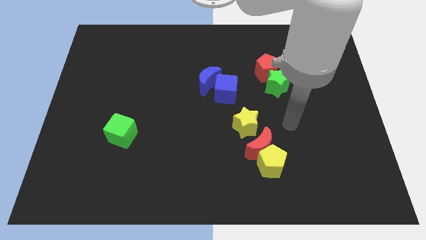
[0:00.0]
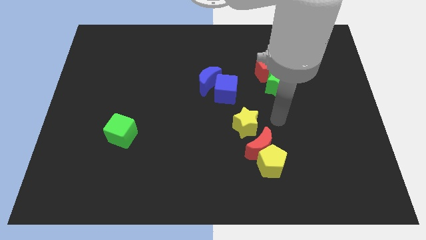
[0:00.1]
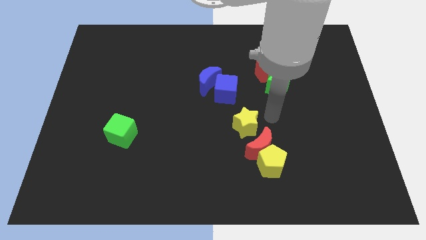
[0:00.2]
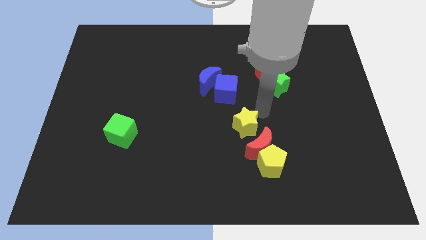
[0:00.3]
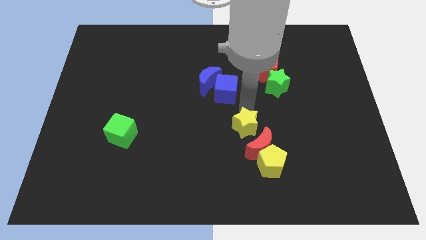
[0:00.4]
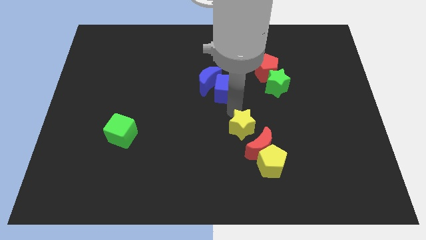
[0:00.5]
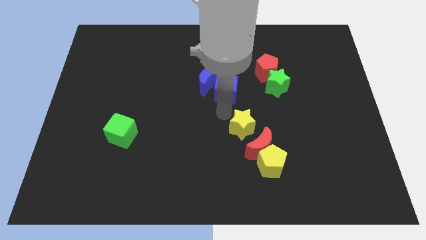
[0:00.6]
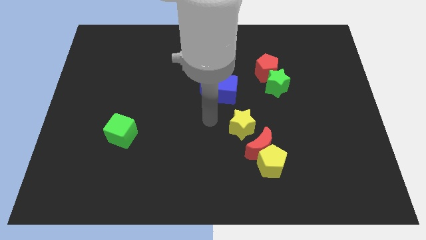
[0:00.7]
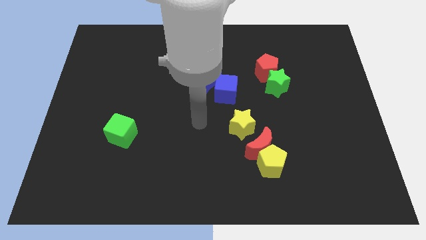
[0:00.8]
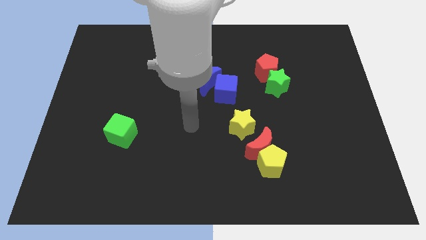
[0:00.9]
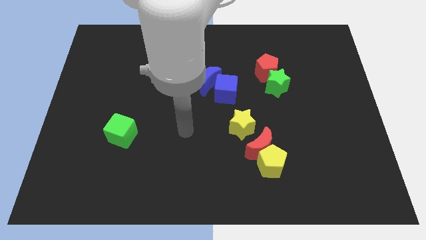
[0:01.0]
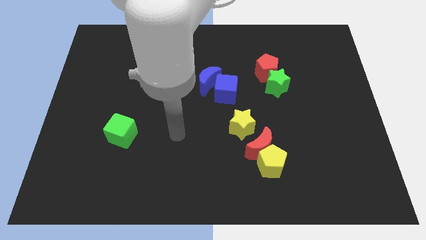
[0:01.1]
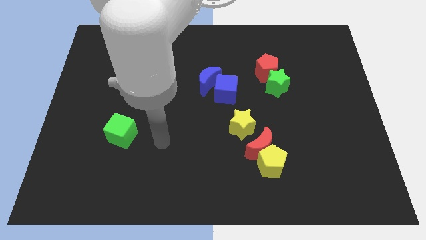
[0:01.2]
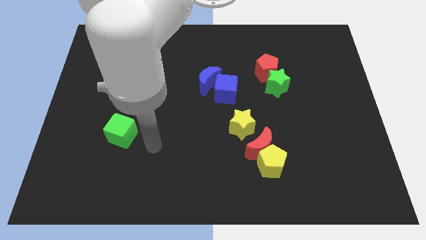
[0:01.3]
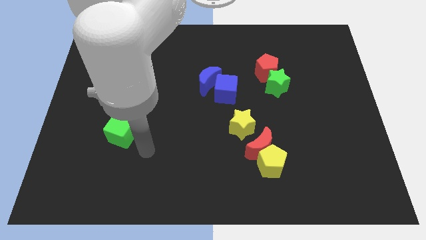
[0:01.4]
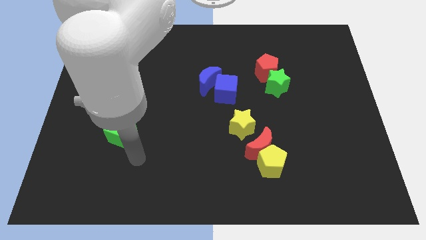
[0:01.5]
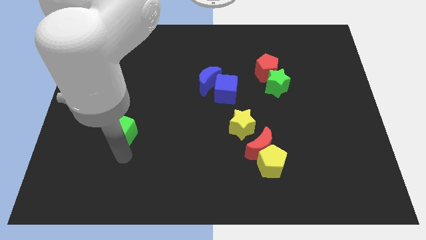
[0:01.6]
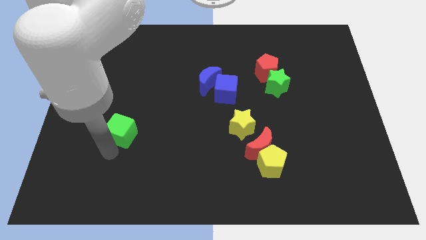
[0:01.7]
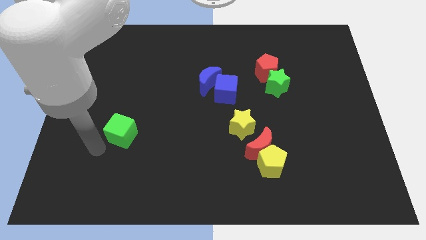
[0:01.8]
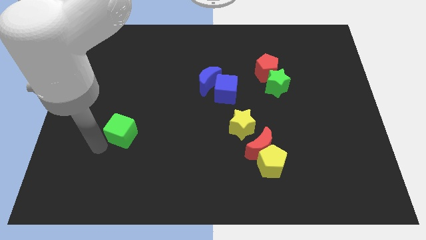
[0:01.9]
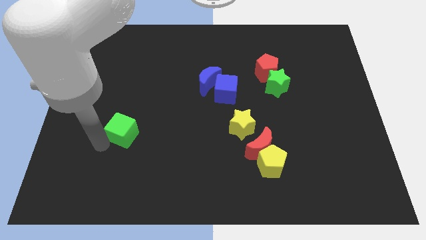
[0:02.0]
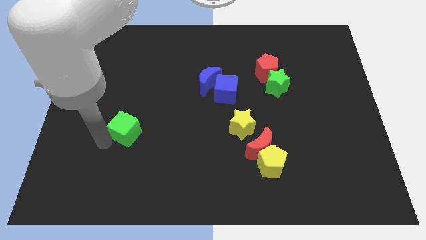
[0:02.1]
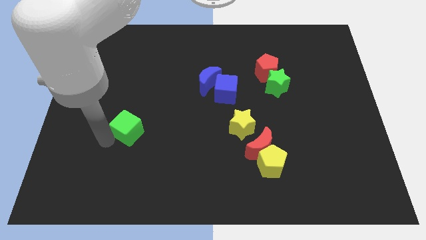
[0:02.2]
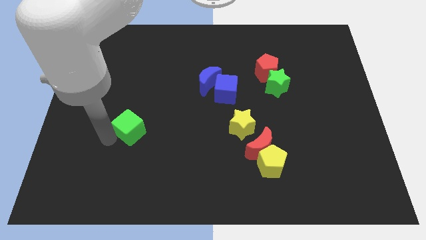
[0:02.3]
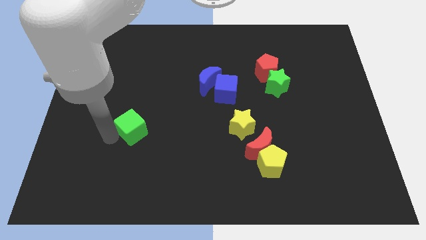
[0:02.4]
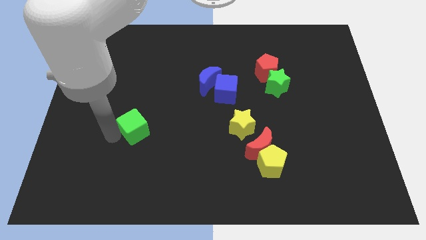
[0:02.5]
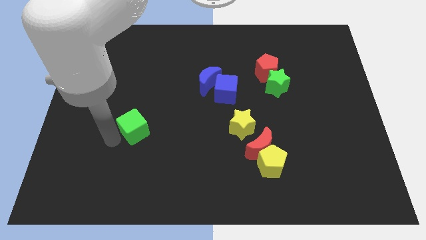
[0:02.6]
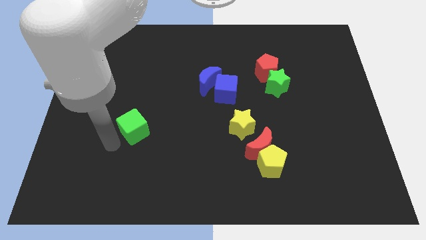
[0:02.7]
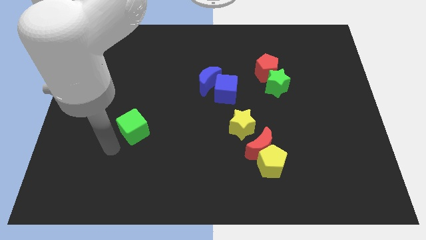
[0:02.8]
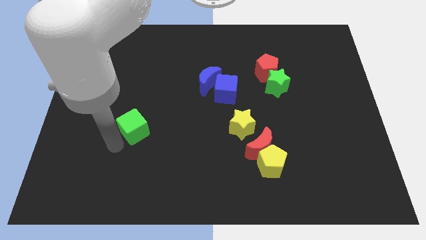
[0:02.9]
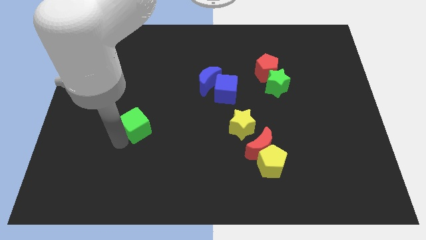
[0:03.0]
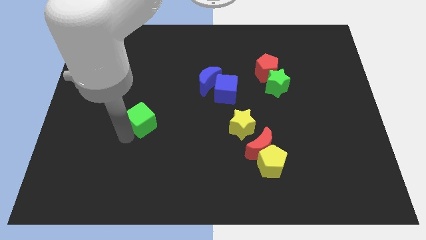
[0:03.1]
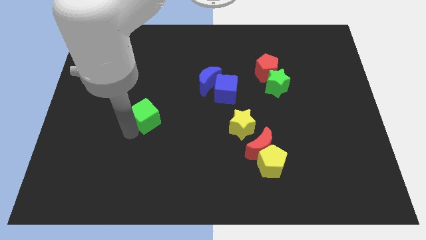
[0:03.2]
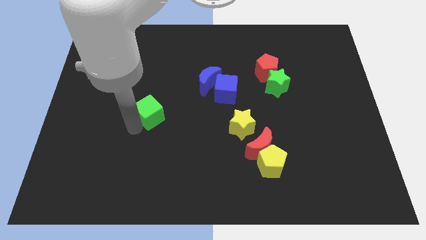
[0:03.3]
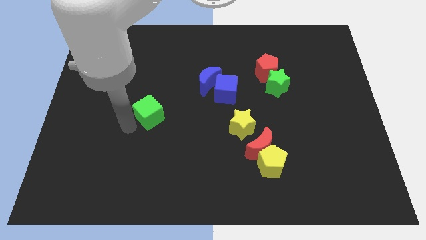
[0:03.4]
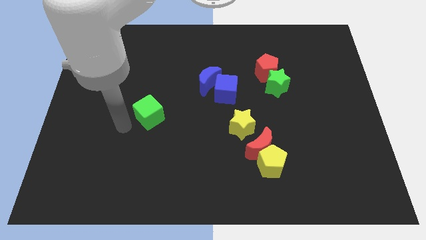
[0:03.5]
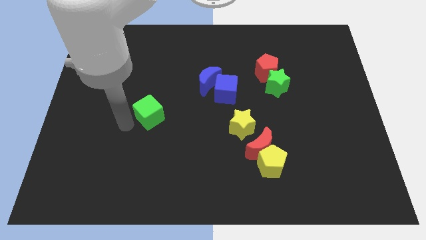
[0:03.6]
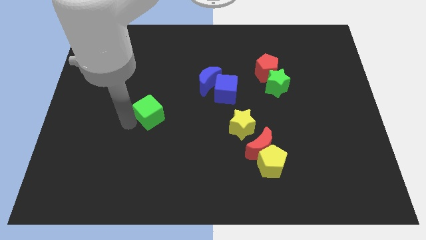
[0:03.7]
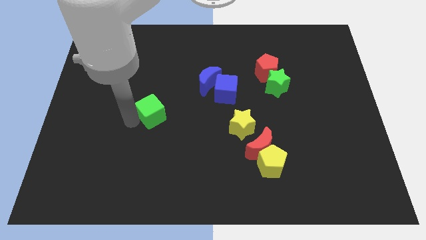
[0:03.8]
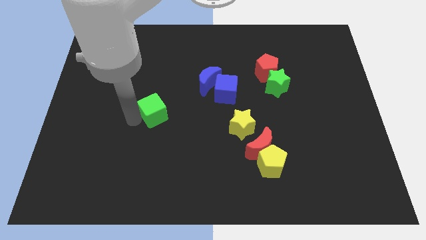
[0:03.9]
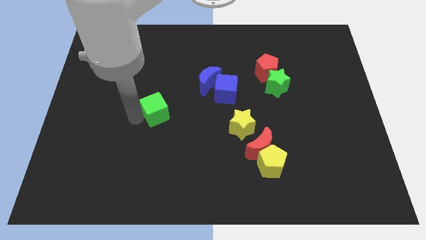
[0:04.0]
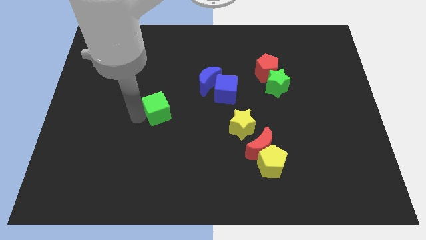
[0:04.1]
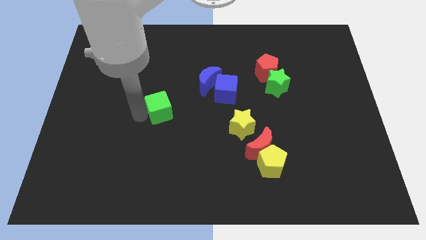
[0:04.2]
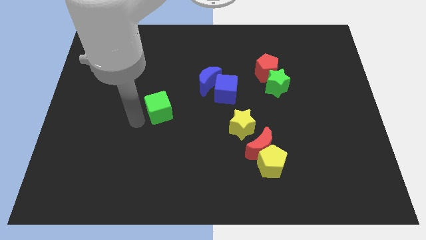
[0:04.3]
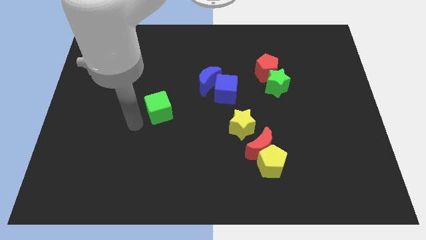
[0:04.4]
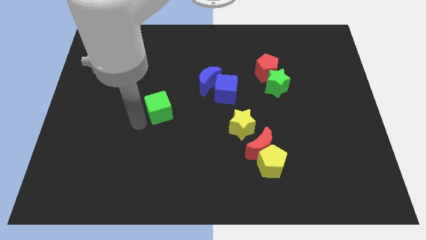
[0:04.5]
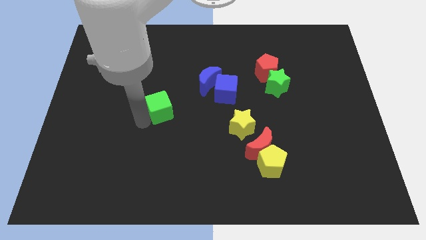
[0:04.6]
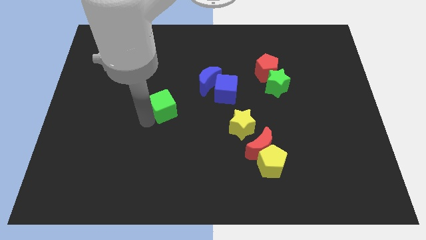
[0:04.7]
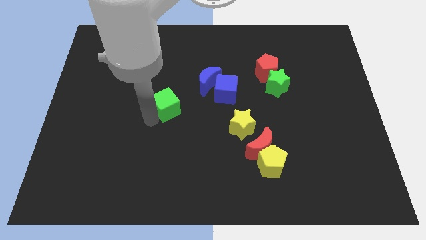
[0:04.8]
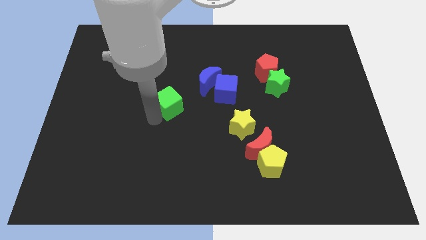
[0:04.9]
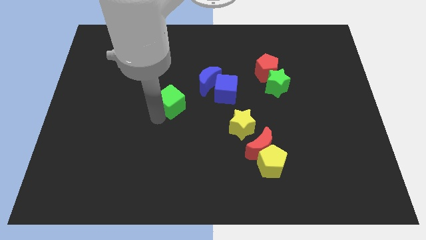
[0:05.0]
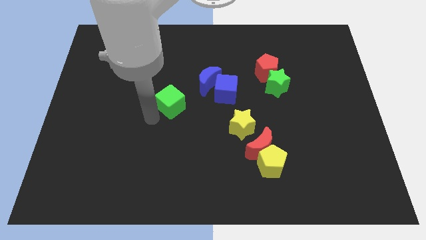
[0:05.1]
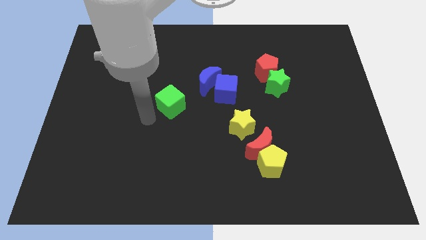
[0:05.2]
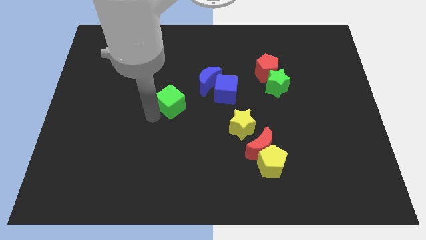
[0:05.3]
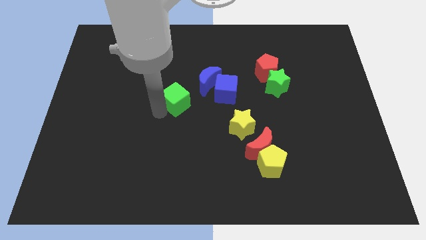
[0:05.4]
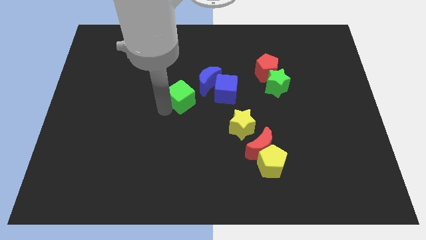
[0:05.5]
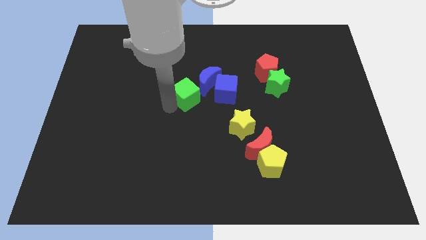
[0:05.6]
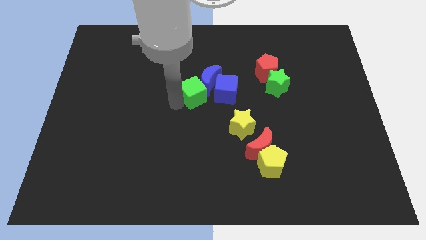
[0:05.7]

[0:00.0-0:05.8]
move the green cube to the blue moon

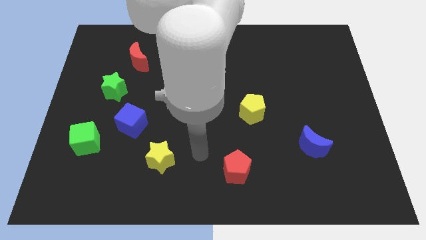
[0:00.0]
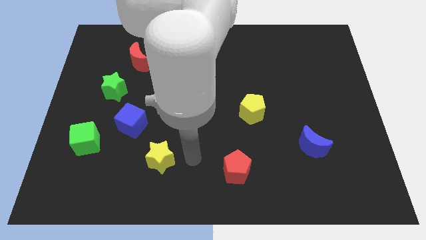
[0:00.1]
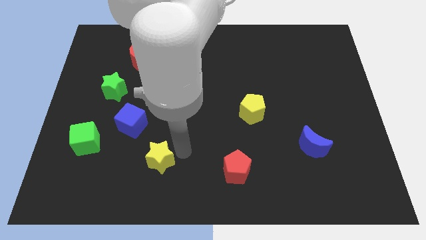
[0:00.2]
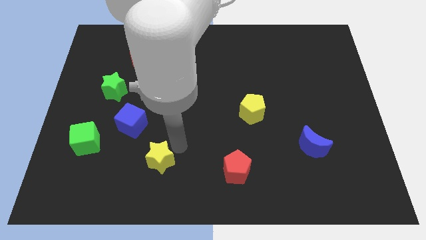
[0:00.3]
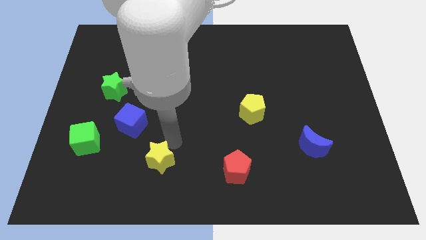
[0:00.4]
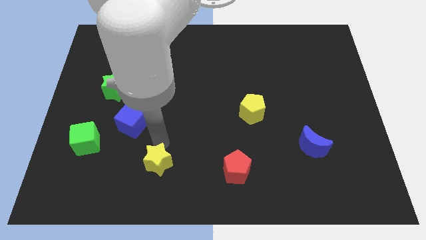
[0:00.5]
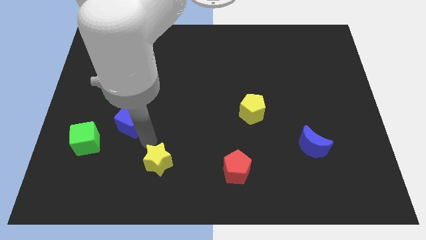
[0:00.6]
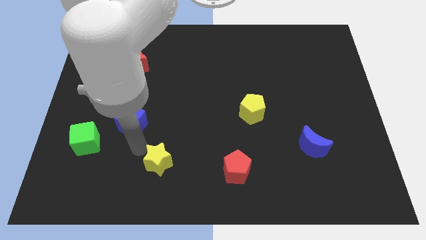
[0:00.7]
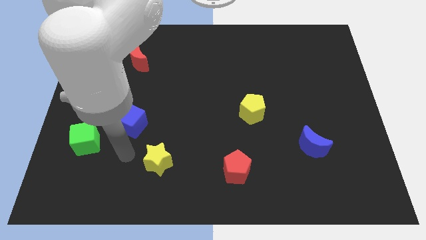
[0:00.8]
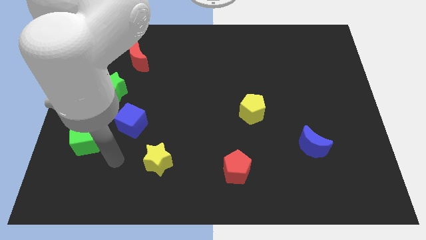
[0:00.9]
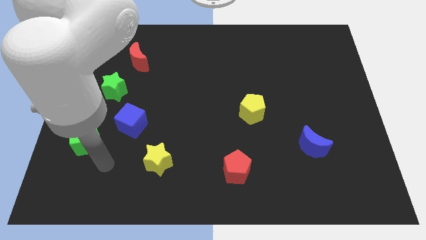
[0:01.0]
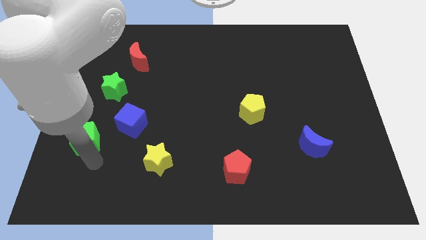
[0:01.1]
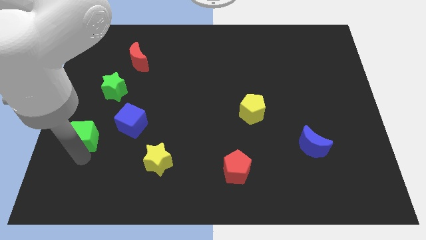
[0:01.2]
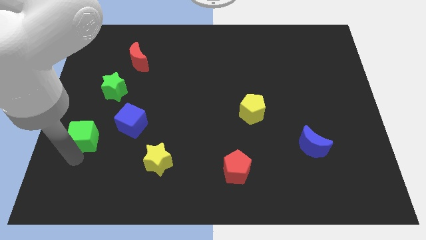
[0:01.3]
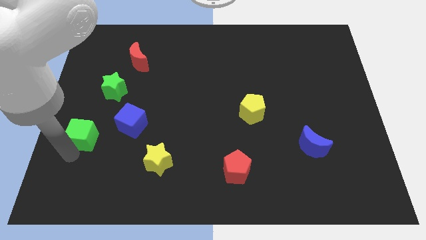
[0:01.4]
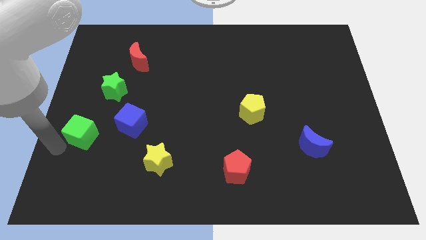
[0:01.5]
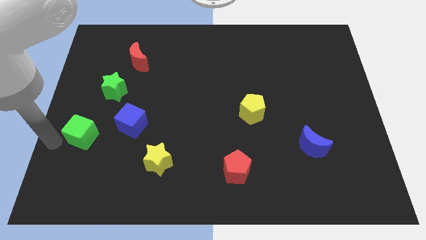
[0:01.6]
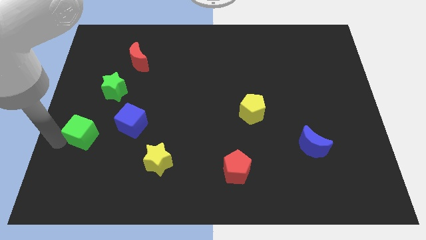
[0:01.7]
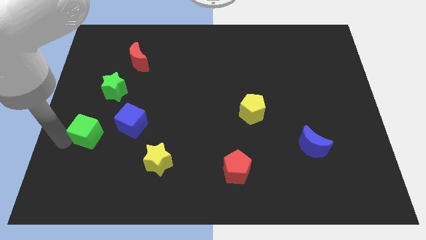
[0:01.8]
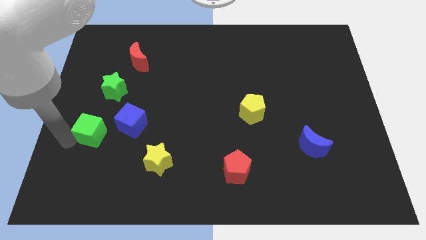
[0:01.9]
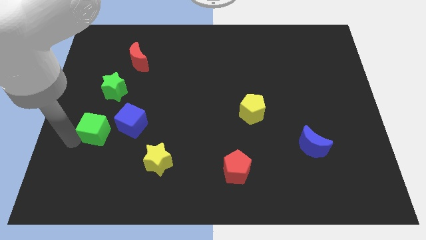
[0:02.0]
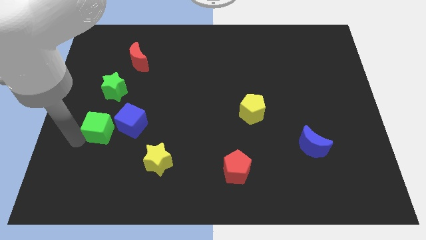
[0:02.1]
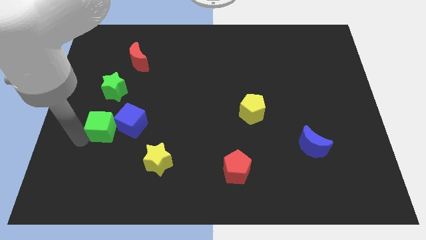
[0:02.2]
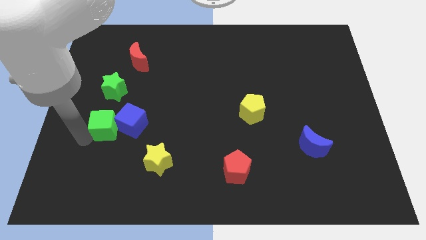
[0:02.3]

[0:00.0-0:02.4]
move the green cube towards the blue cube
